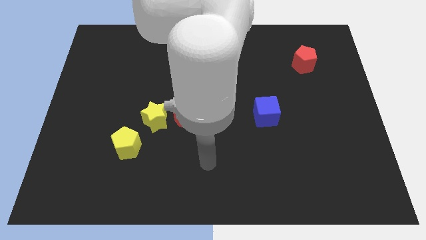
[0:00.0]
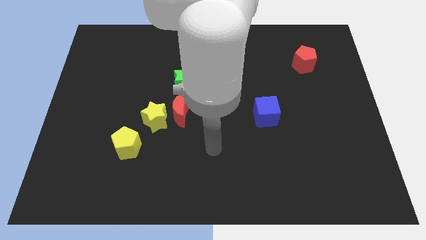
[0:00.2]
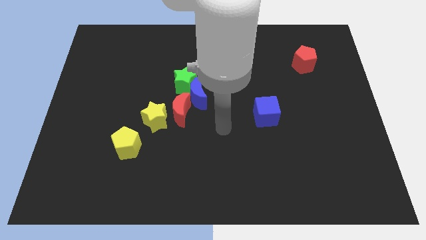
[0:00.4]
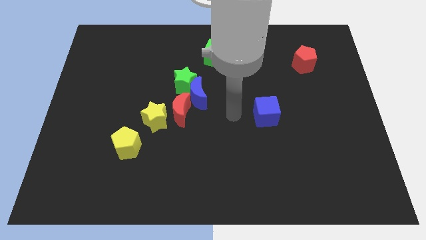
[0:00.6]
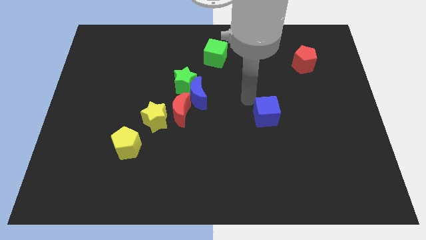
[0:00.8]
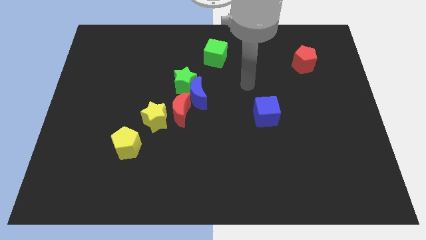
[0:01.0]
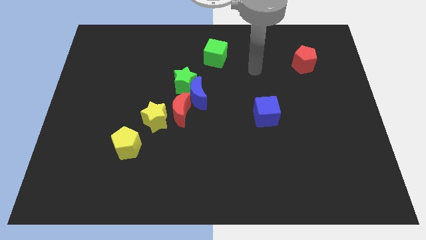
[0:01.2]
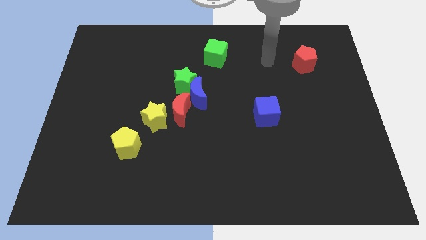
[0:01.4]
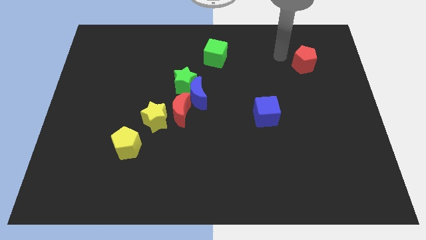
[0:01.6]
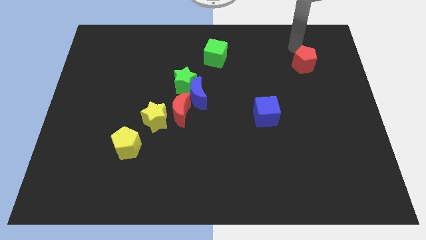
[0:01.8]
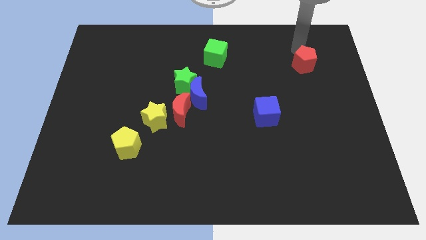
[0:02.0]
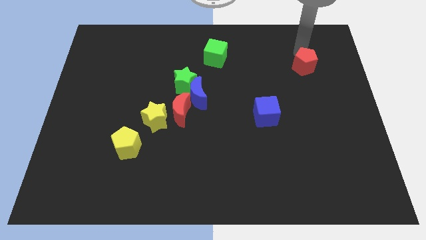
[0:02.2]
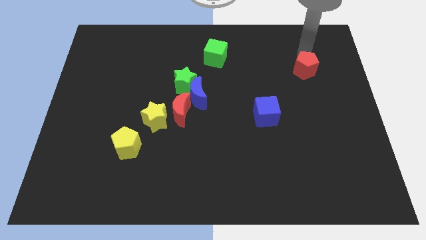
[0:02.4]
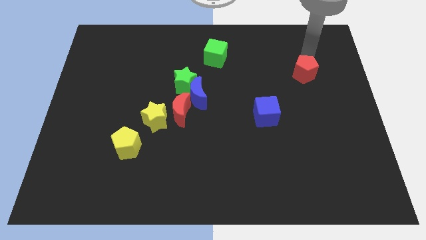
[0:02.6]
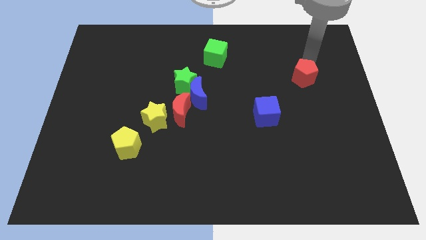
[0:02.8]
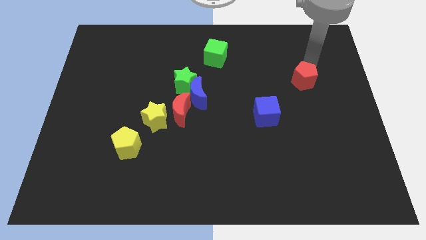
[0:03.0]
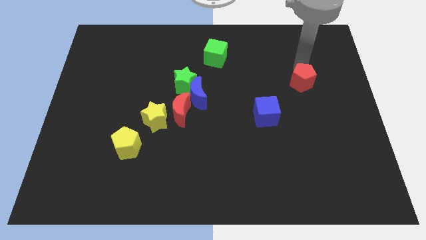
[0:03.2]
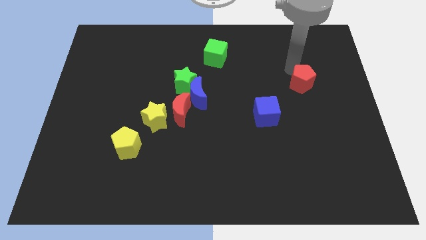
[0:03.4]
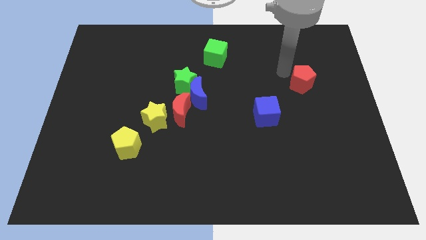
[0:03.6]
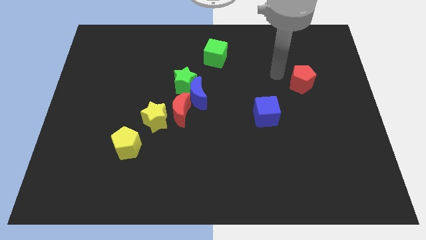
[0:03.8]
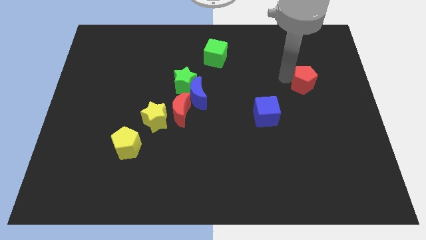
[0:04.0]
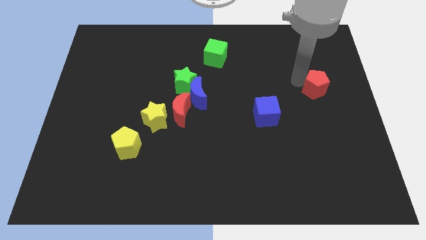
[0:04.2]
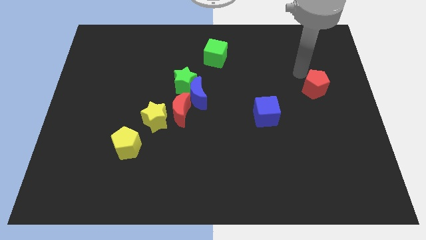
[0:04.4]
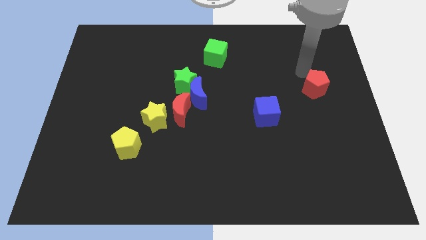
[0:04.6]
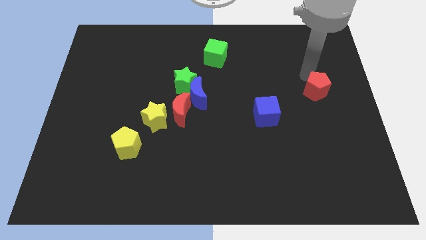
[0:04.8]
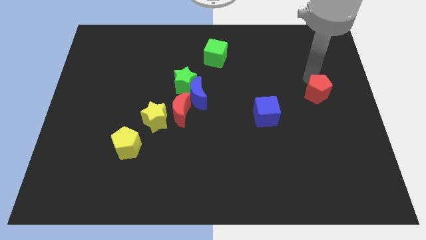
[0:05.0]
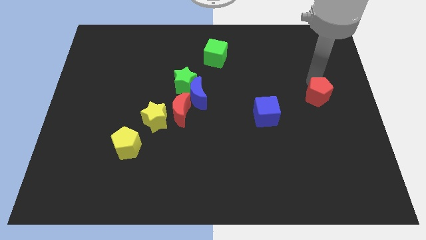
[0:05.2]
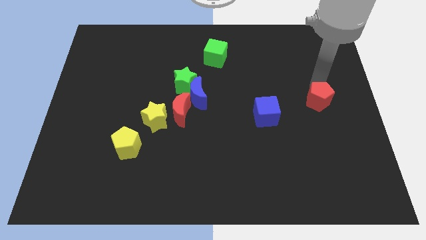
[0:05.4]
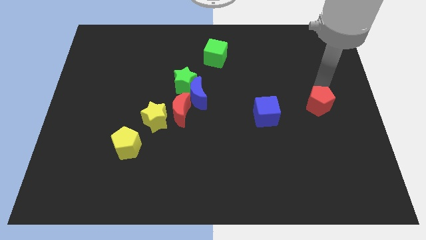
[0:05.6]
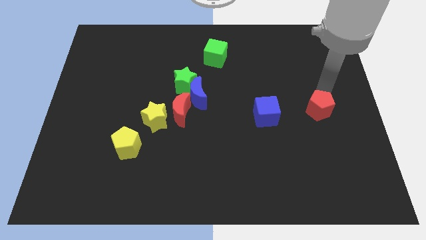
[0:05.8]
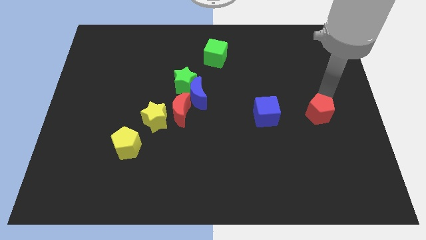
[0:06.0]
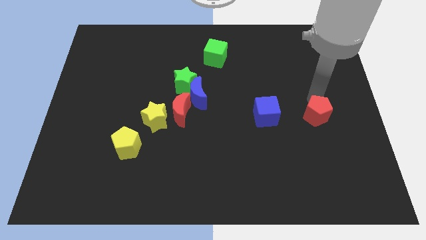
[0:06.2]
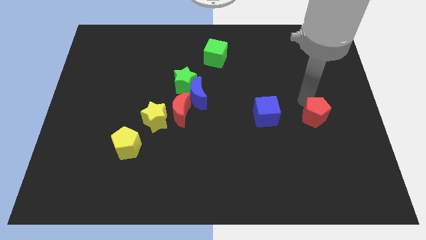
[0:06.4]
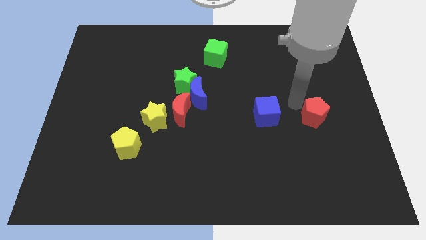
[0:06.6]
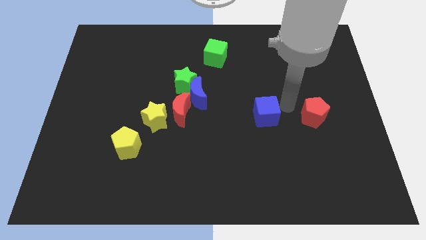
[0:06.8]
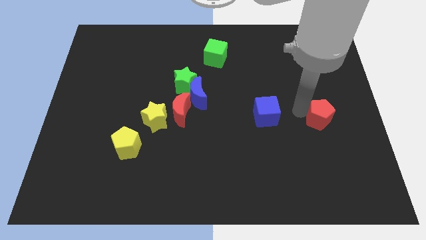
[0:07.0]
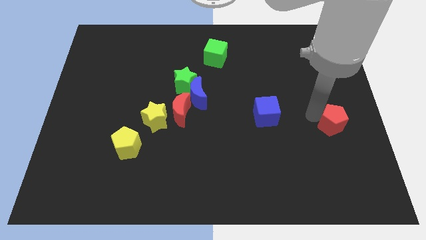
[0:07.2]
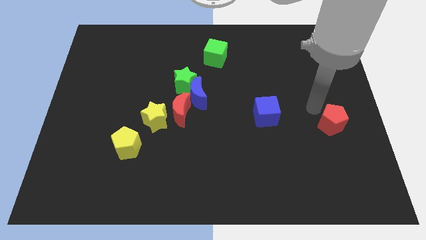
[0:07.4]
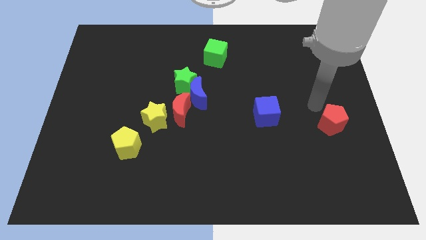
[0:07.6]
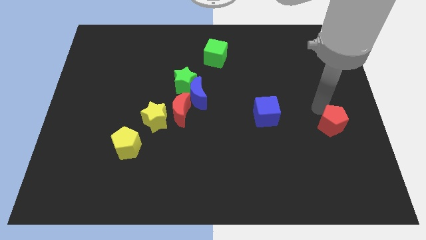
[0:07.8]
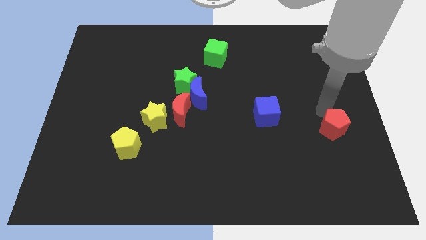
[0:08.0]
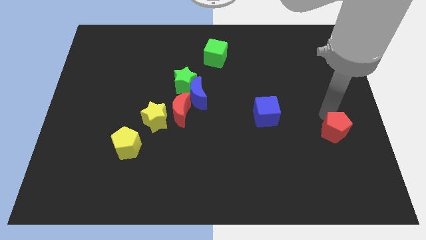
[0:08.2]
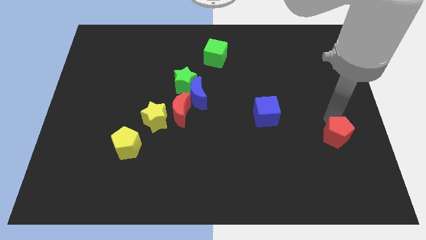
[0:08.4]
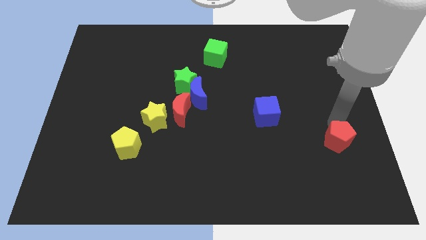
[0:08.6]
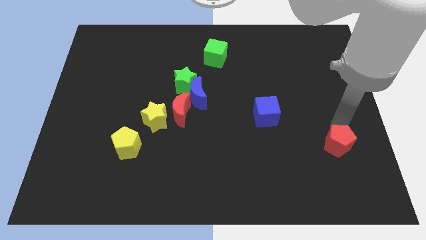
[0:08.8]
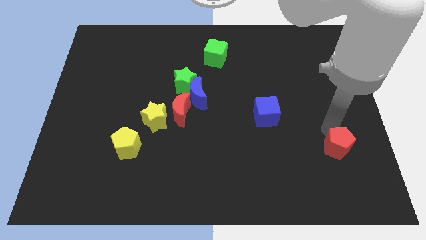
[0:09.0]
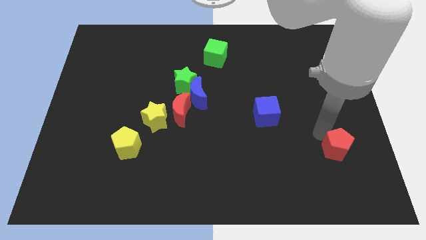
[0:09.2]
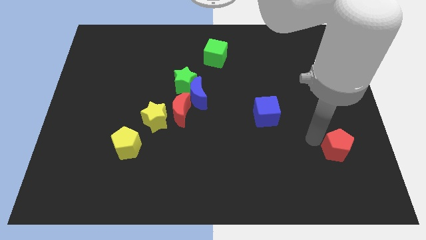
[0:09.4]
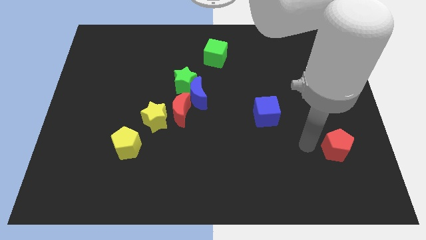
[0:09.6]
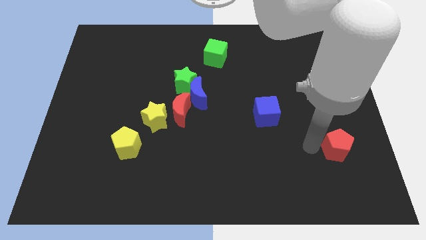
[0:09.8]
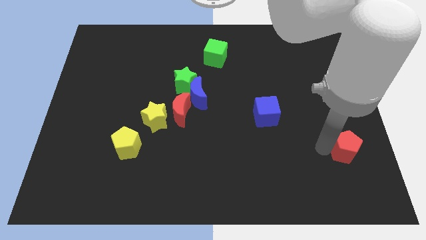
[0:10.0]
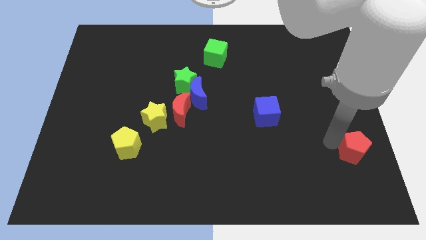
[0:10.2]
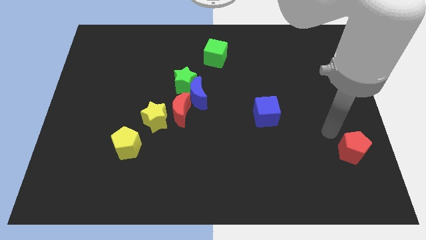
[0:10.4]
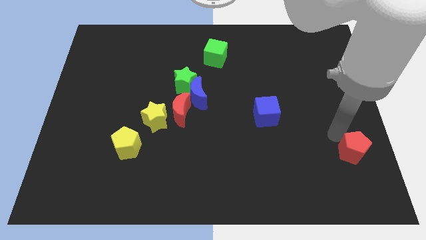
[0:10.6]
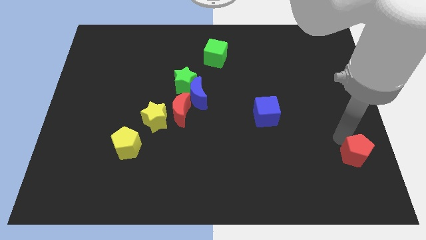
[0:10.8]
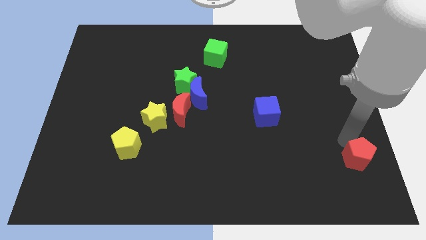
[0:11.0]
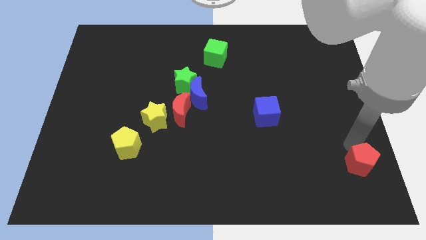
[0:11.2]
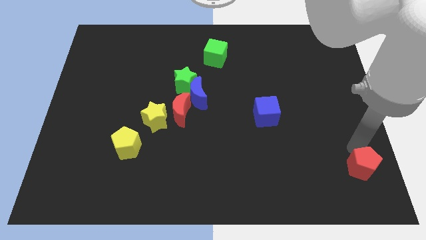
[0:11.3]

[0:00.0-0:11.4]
put the red pentagon to the bottom right
